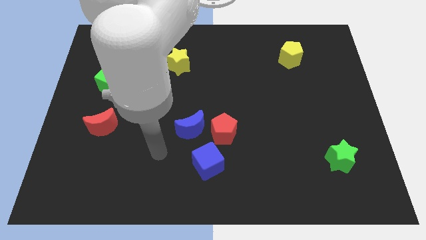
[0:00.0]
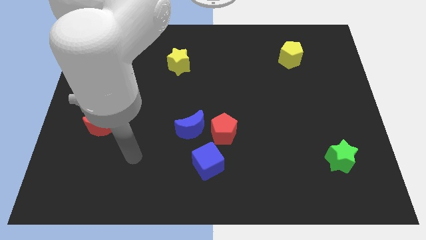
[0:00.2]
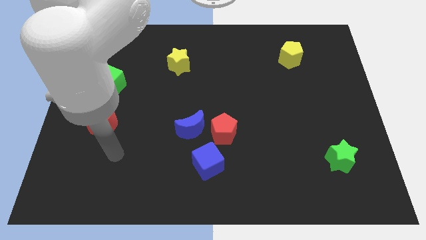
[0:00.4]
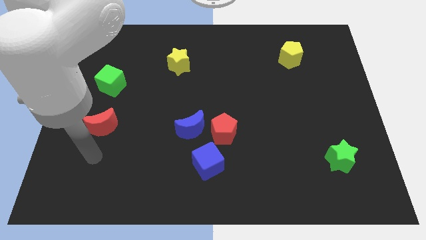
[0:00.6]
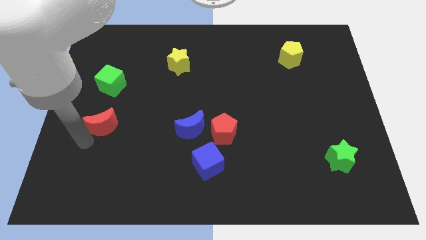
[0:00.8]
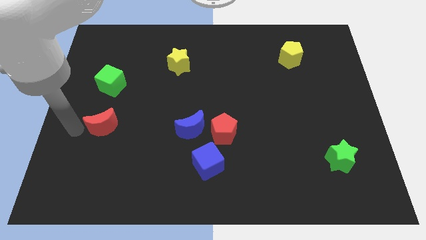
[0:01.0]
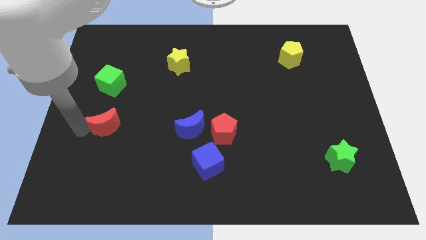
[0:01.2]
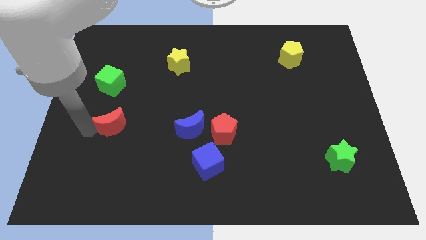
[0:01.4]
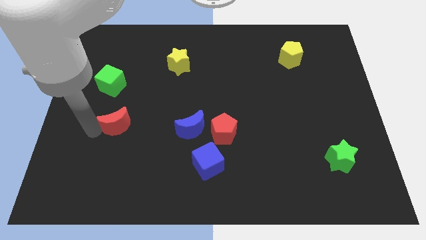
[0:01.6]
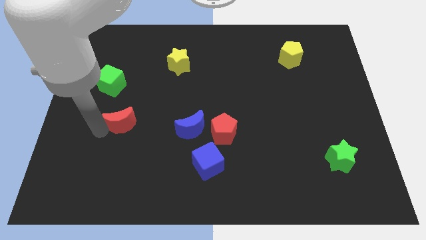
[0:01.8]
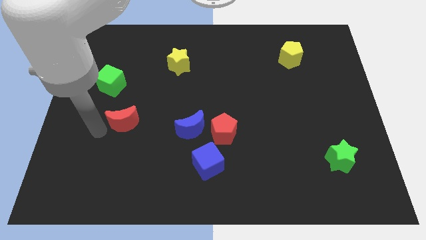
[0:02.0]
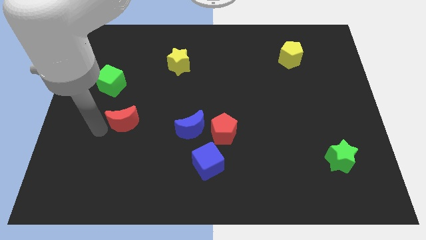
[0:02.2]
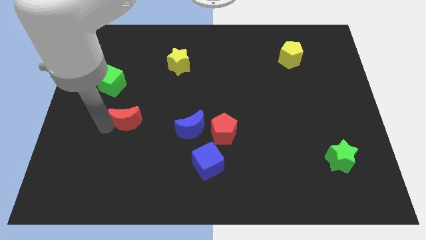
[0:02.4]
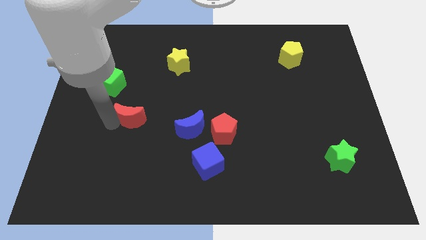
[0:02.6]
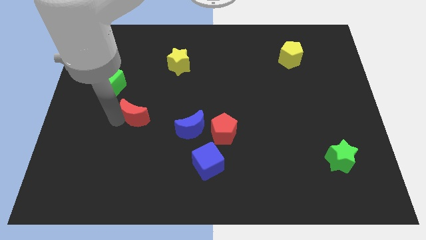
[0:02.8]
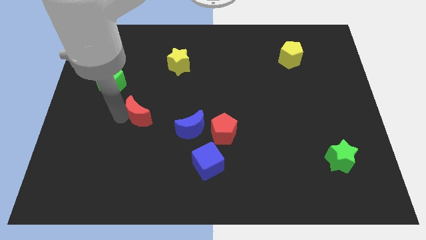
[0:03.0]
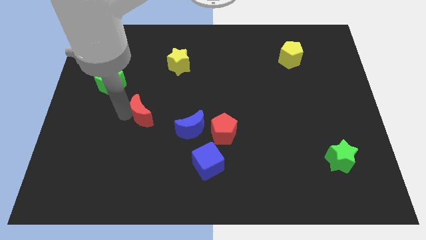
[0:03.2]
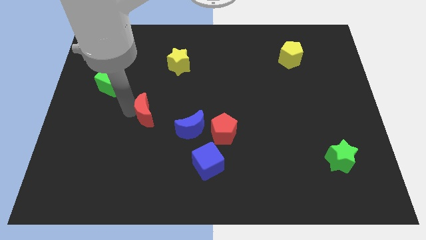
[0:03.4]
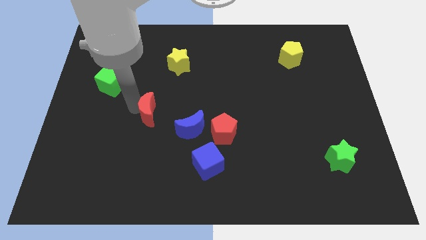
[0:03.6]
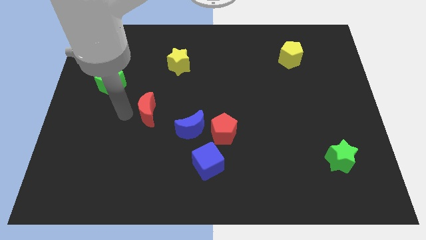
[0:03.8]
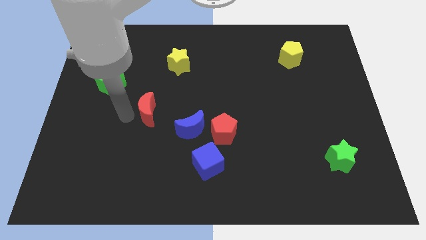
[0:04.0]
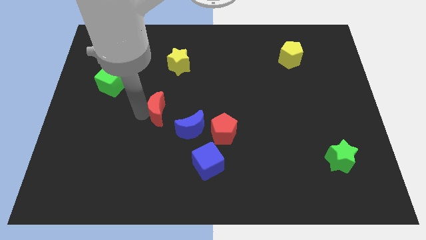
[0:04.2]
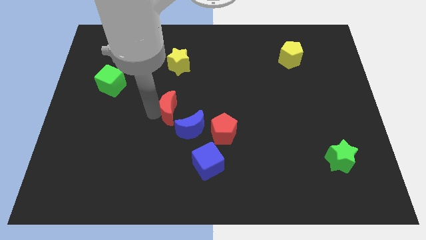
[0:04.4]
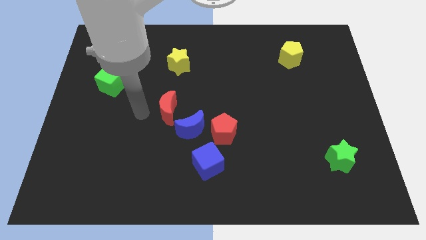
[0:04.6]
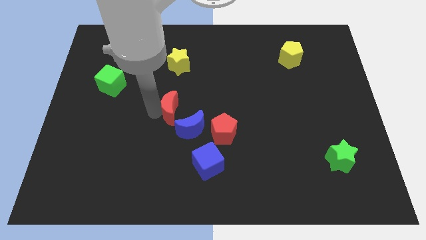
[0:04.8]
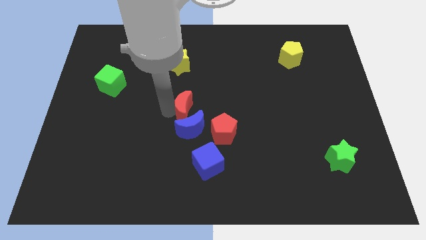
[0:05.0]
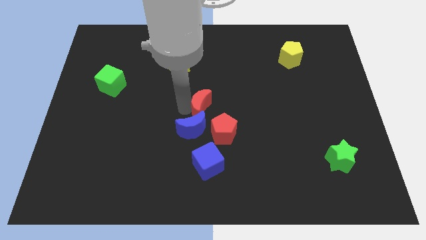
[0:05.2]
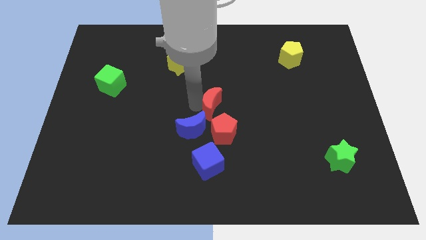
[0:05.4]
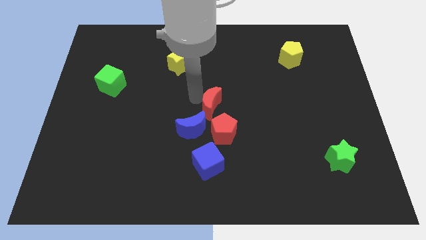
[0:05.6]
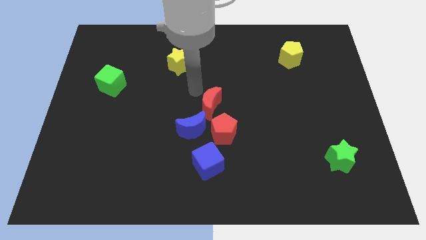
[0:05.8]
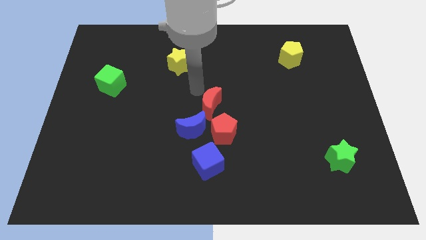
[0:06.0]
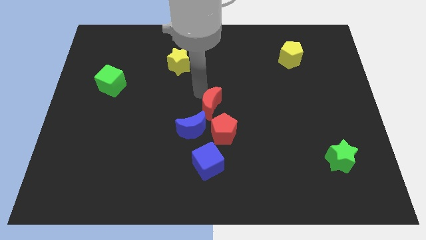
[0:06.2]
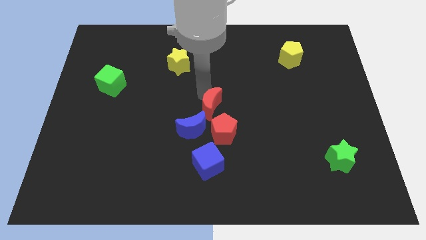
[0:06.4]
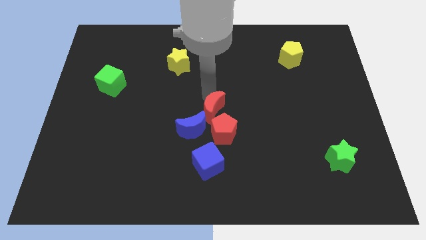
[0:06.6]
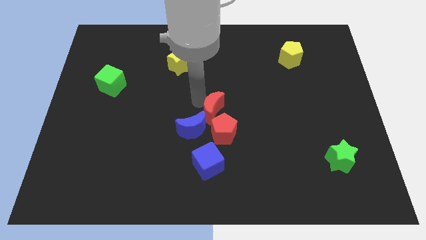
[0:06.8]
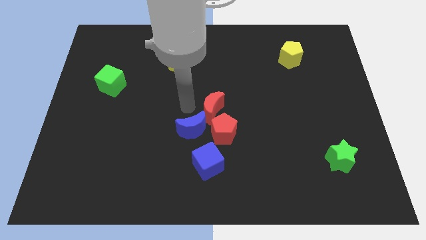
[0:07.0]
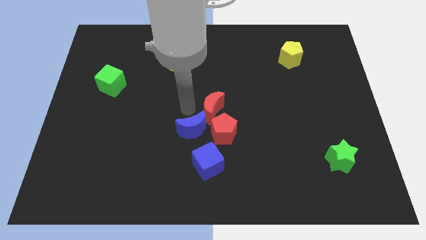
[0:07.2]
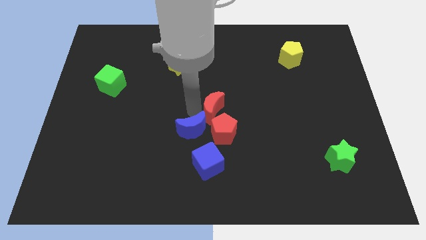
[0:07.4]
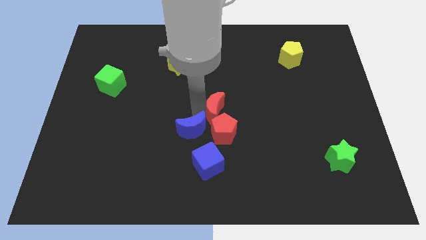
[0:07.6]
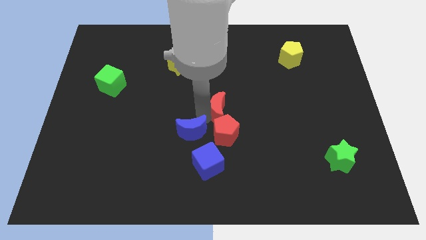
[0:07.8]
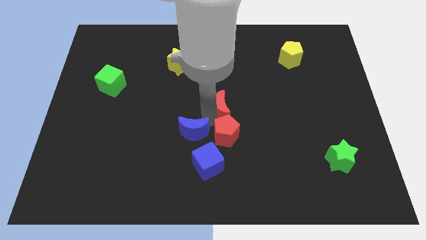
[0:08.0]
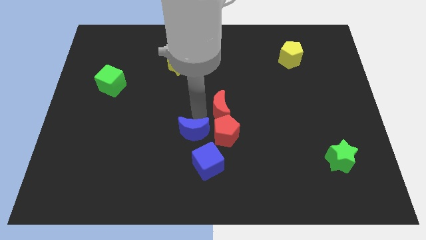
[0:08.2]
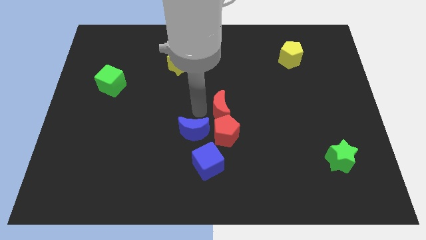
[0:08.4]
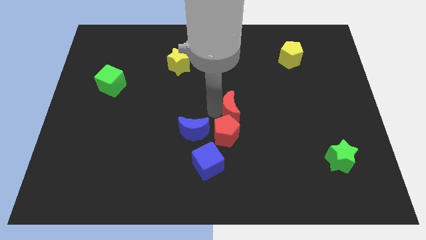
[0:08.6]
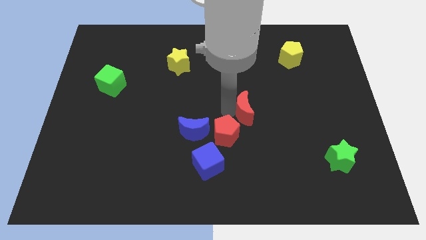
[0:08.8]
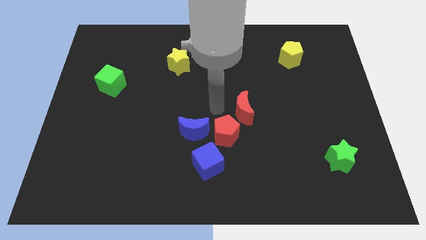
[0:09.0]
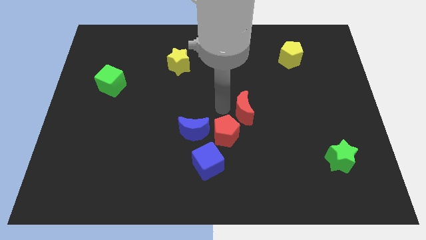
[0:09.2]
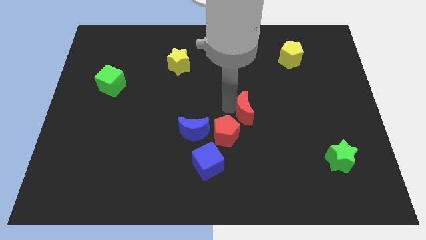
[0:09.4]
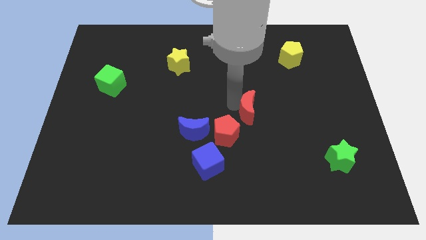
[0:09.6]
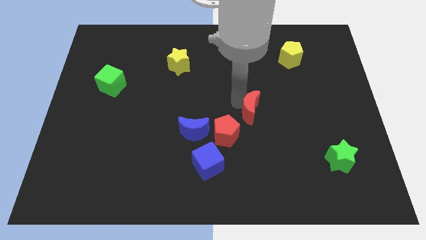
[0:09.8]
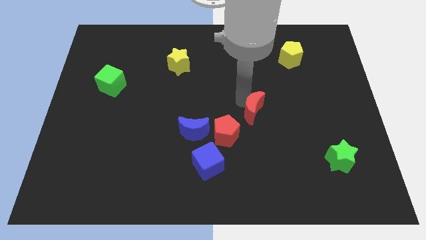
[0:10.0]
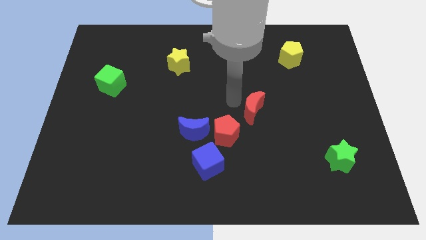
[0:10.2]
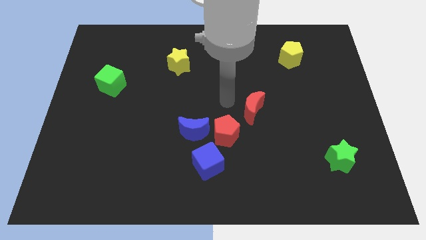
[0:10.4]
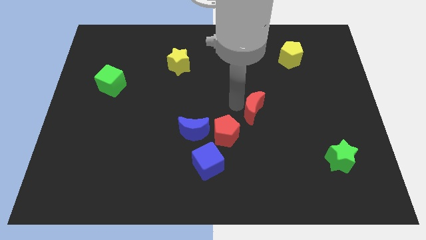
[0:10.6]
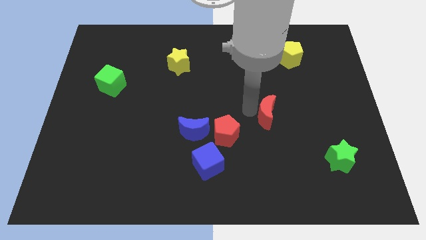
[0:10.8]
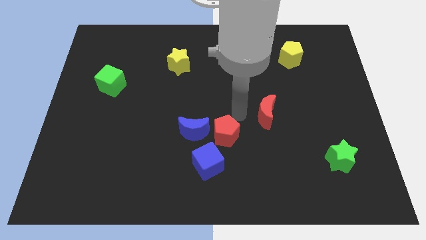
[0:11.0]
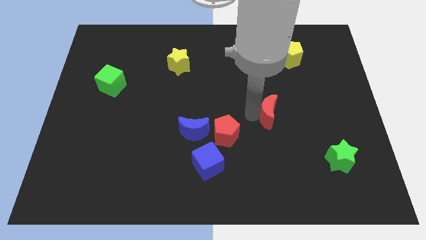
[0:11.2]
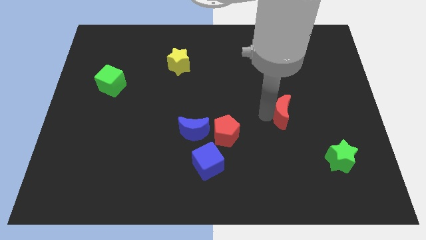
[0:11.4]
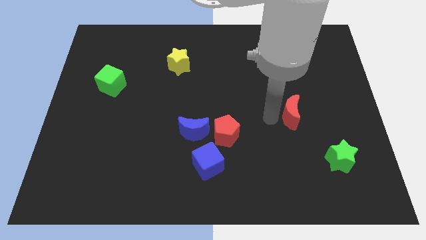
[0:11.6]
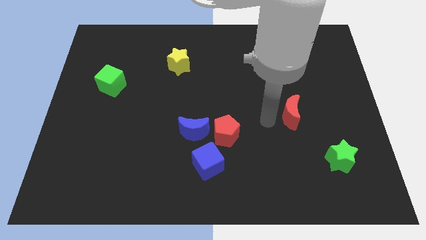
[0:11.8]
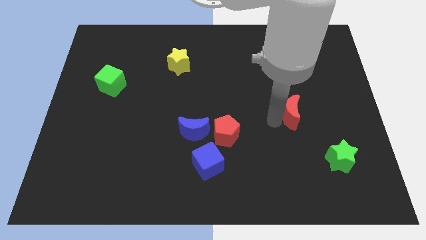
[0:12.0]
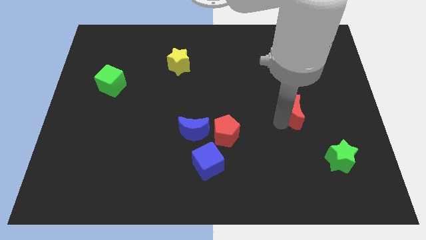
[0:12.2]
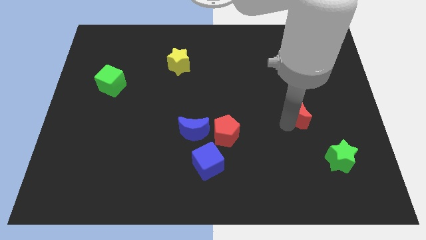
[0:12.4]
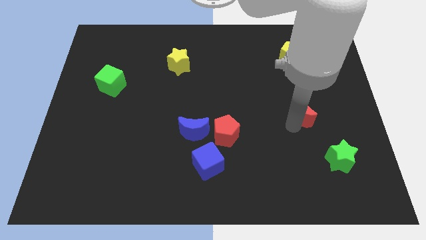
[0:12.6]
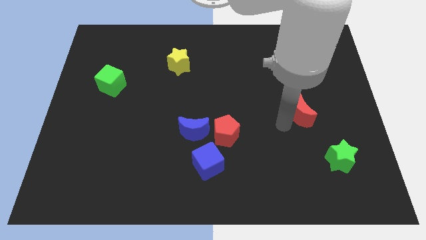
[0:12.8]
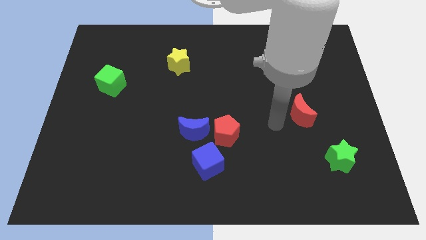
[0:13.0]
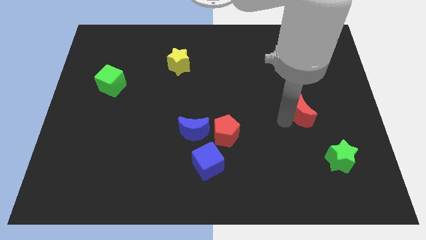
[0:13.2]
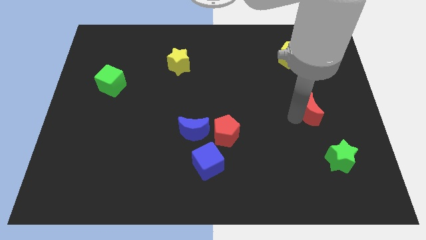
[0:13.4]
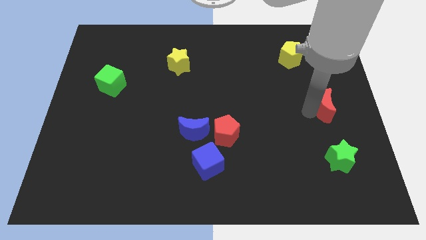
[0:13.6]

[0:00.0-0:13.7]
push the red moon to the center right
